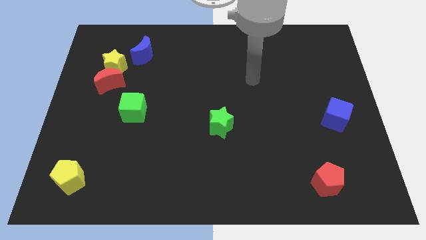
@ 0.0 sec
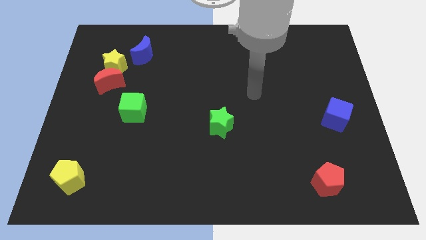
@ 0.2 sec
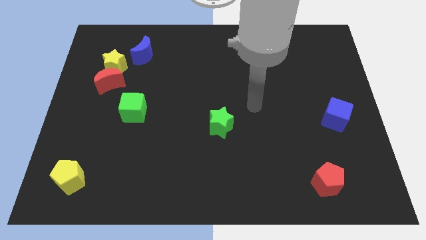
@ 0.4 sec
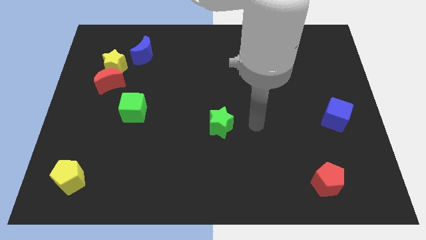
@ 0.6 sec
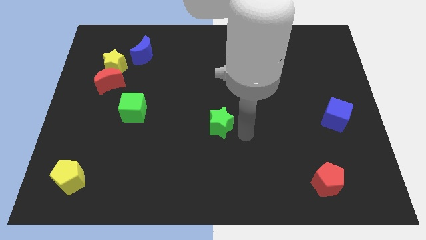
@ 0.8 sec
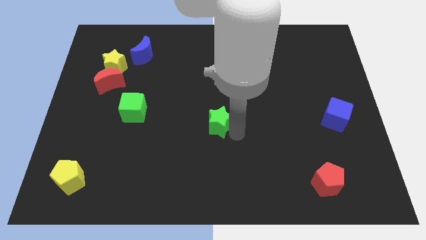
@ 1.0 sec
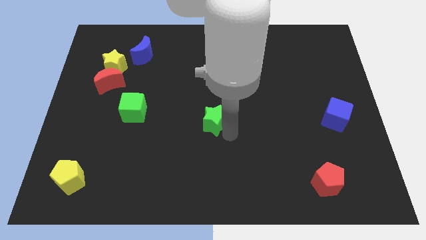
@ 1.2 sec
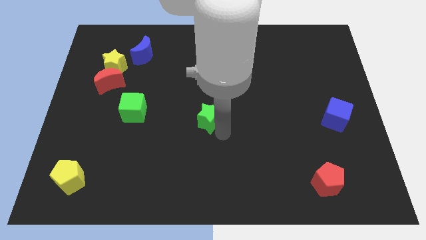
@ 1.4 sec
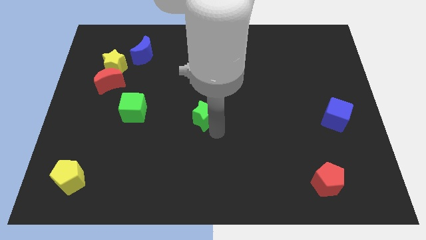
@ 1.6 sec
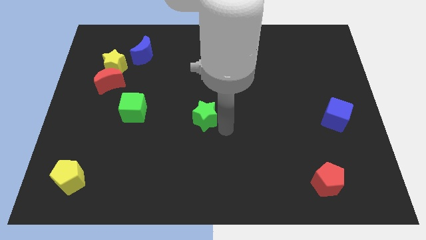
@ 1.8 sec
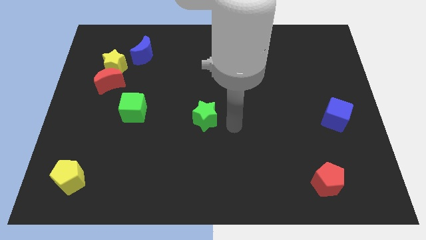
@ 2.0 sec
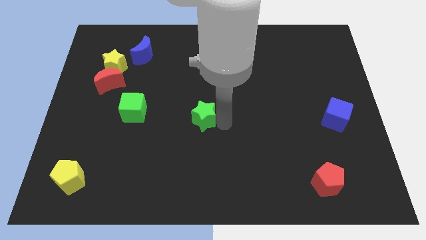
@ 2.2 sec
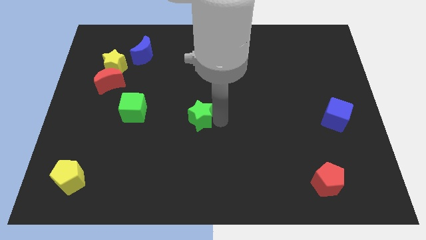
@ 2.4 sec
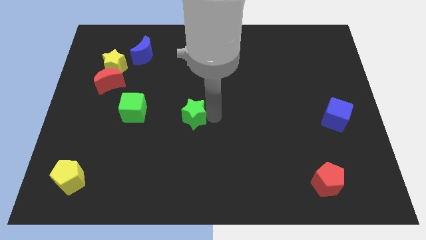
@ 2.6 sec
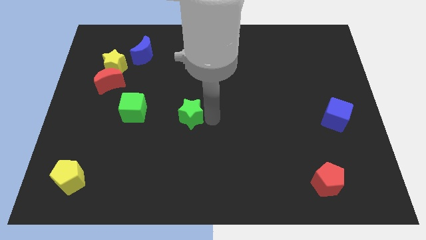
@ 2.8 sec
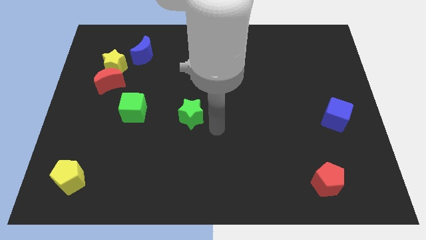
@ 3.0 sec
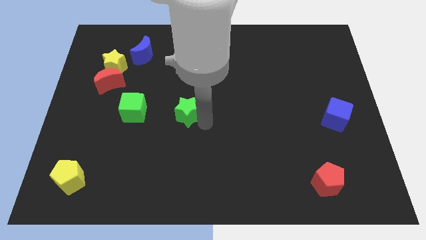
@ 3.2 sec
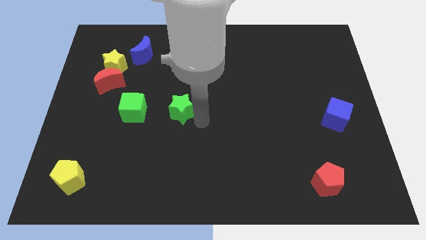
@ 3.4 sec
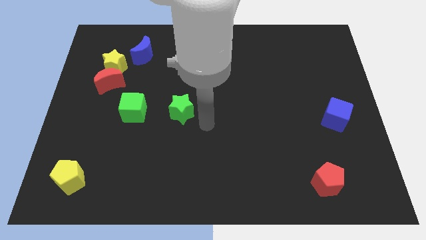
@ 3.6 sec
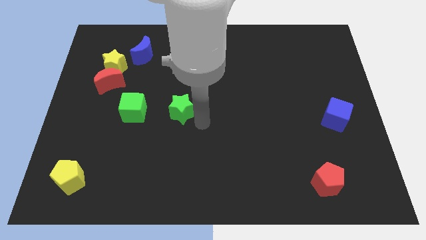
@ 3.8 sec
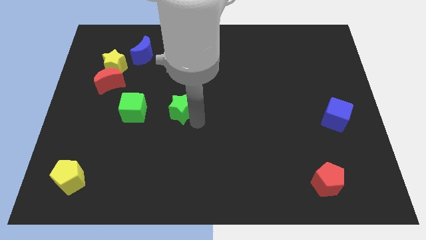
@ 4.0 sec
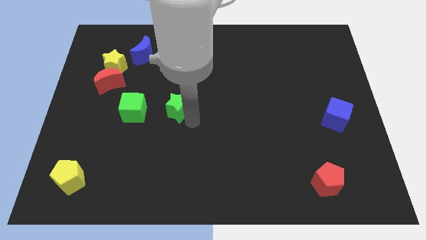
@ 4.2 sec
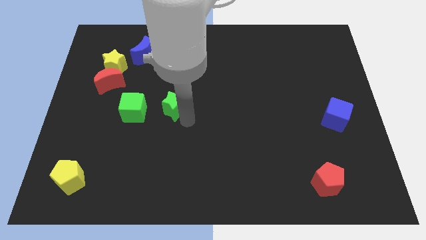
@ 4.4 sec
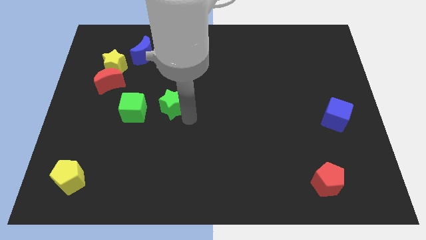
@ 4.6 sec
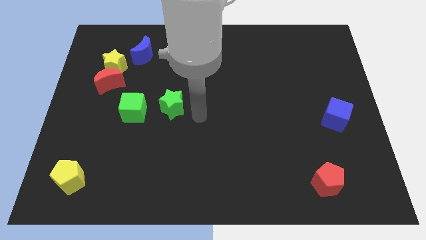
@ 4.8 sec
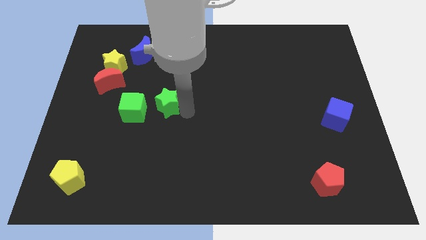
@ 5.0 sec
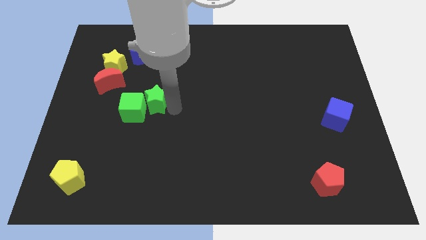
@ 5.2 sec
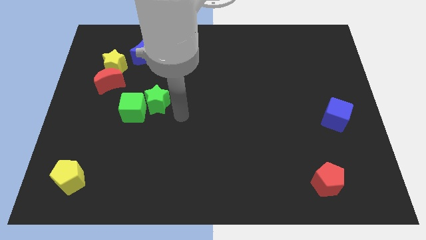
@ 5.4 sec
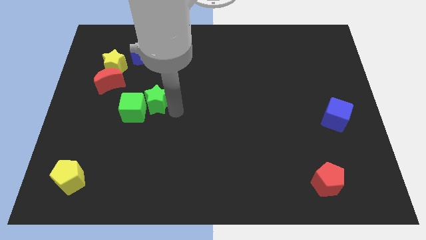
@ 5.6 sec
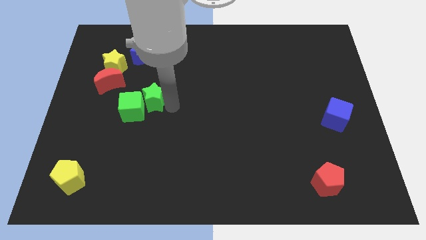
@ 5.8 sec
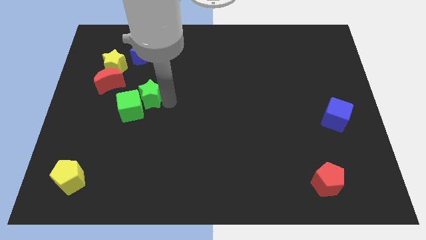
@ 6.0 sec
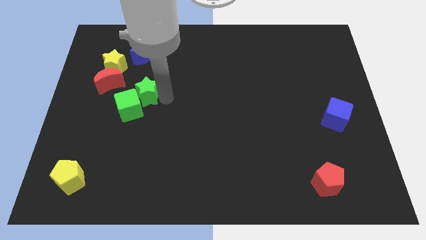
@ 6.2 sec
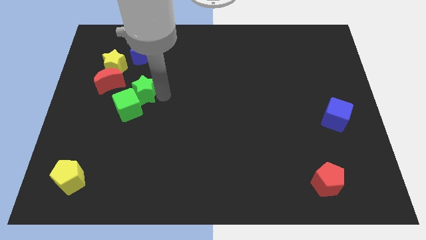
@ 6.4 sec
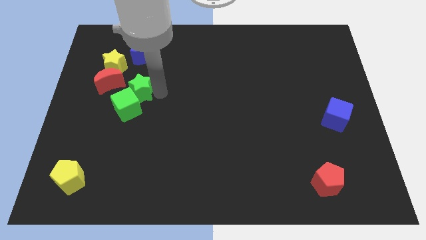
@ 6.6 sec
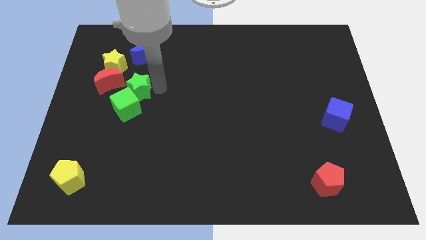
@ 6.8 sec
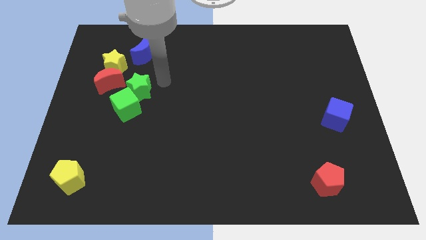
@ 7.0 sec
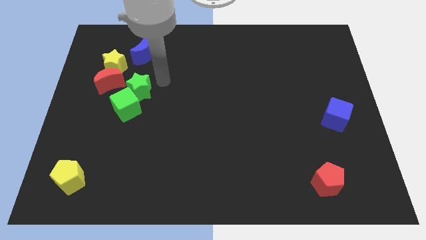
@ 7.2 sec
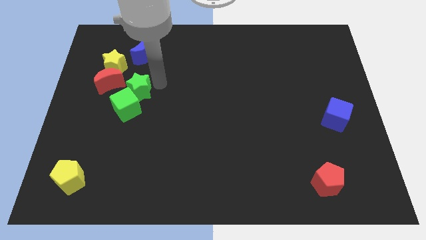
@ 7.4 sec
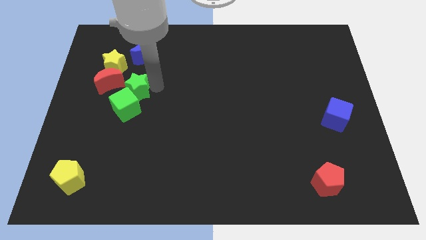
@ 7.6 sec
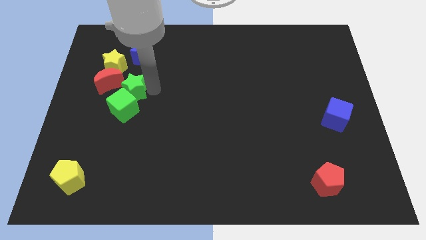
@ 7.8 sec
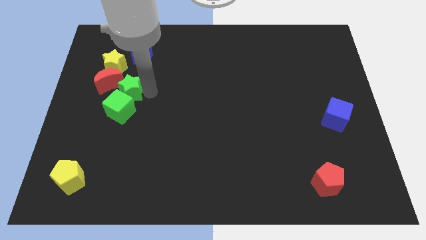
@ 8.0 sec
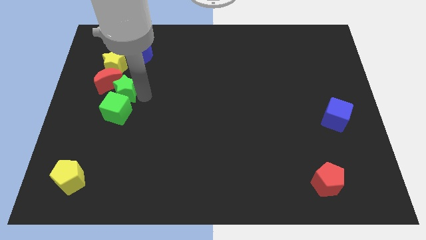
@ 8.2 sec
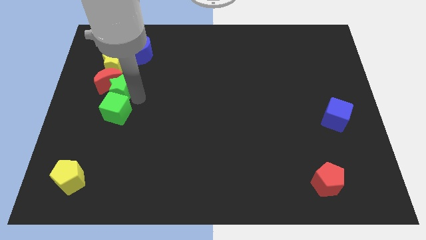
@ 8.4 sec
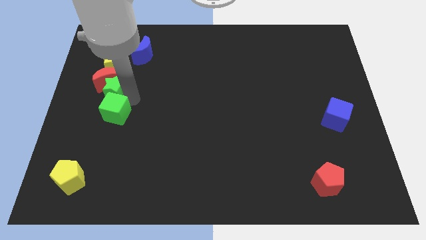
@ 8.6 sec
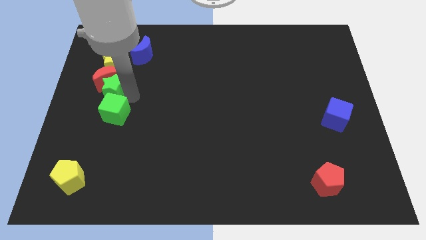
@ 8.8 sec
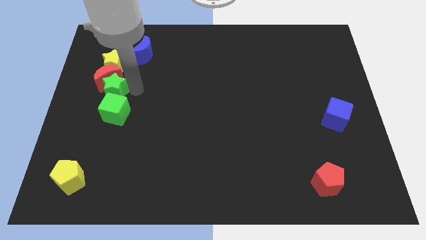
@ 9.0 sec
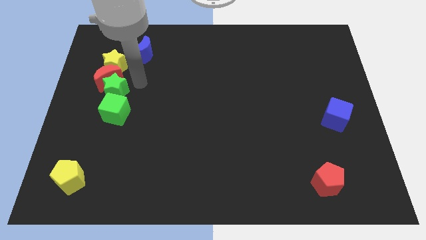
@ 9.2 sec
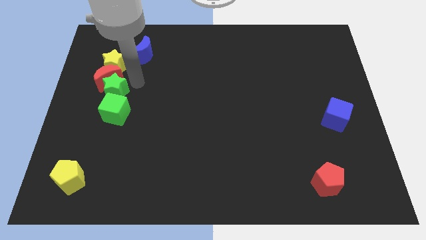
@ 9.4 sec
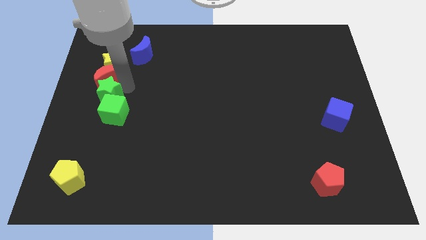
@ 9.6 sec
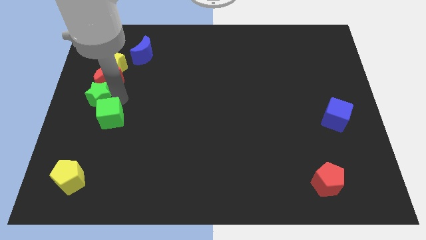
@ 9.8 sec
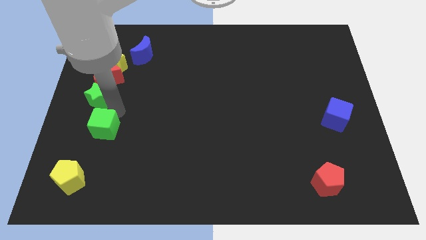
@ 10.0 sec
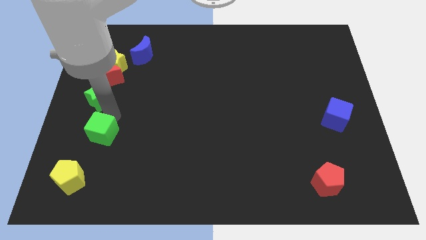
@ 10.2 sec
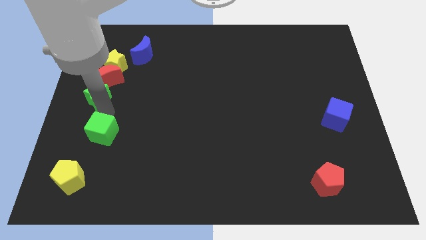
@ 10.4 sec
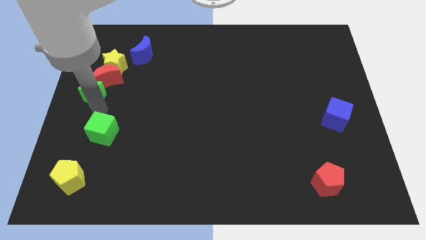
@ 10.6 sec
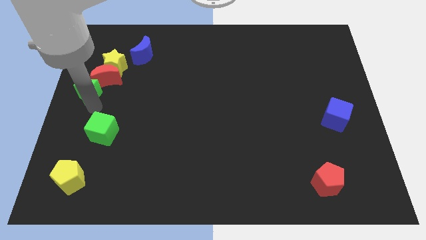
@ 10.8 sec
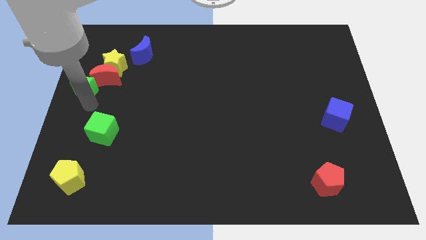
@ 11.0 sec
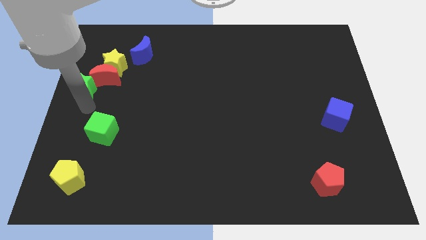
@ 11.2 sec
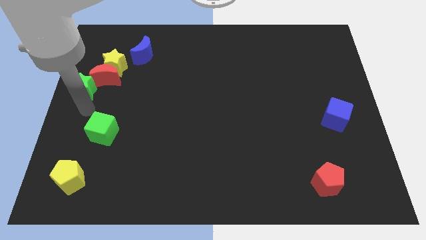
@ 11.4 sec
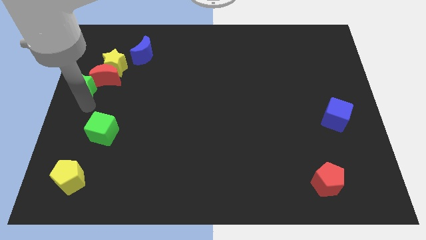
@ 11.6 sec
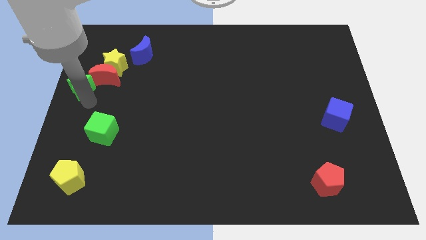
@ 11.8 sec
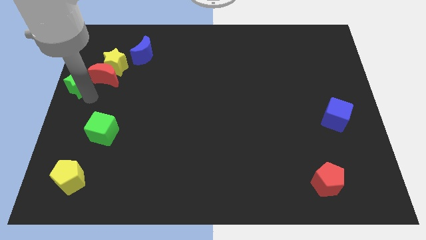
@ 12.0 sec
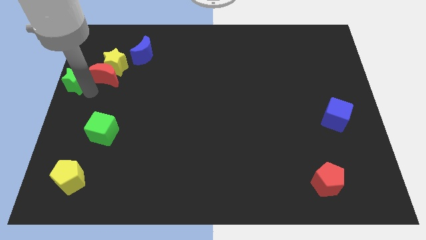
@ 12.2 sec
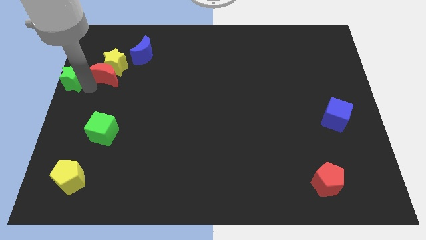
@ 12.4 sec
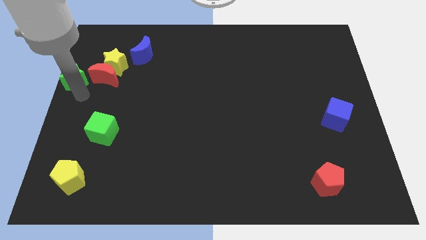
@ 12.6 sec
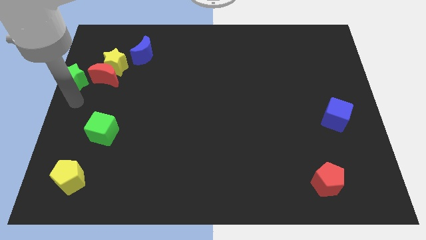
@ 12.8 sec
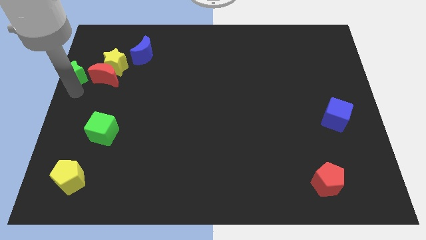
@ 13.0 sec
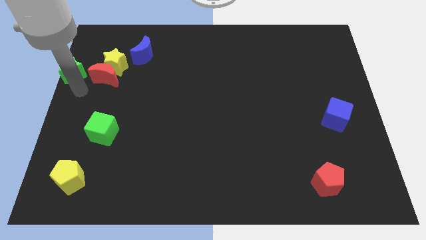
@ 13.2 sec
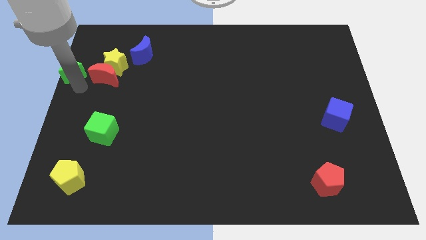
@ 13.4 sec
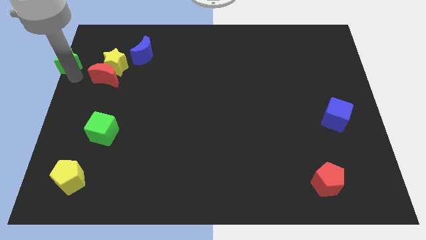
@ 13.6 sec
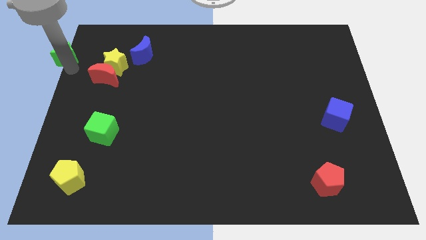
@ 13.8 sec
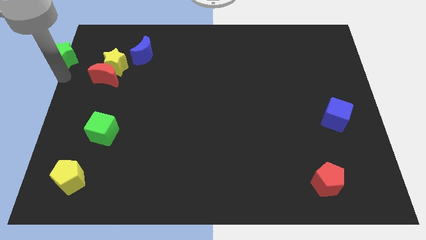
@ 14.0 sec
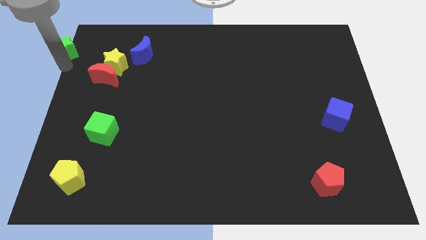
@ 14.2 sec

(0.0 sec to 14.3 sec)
slide the green star to the top left of the board
